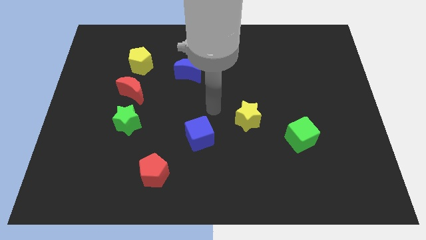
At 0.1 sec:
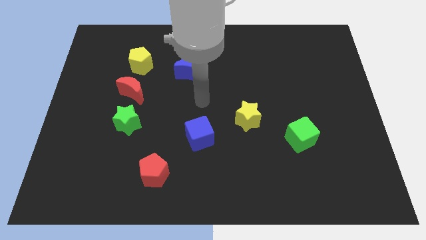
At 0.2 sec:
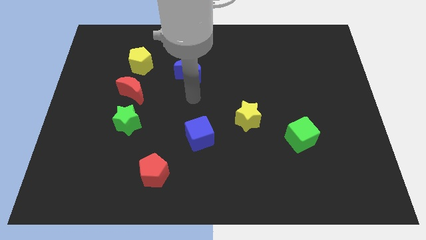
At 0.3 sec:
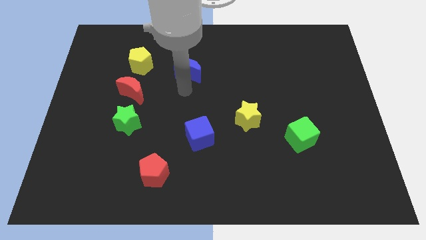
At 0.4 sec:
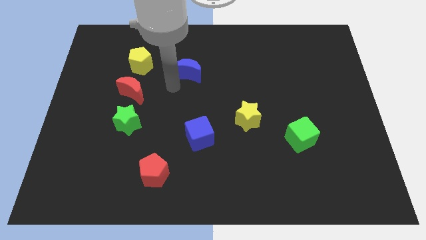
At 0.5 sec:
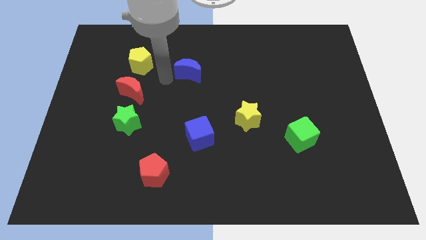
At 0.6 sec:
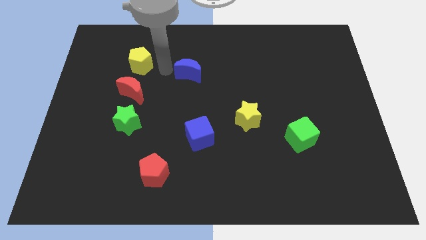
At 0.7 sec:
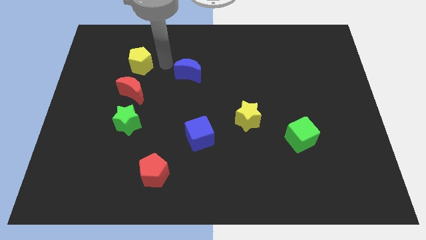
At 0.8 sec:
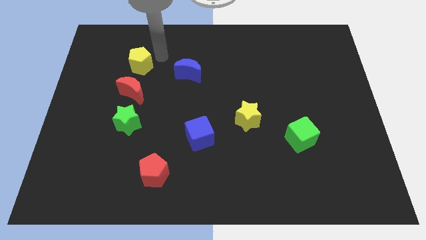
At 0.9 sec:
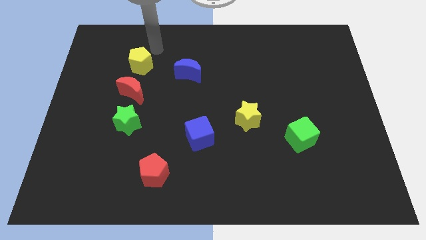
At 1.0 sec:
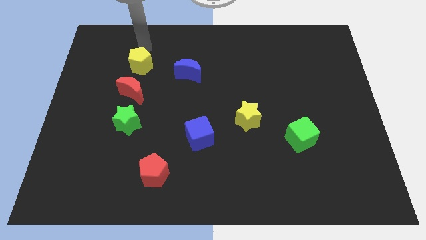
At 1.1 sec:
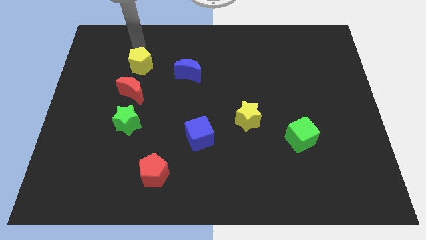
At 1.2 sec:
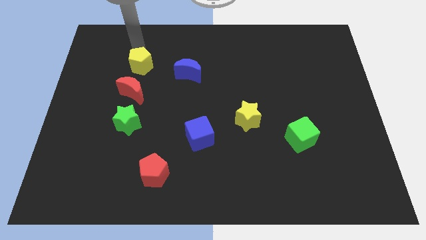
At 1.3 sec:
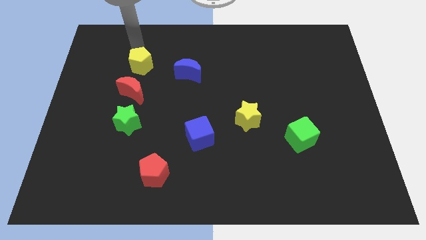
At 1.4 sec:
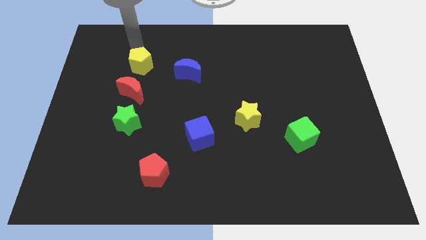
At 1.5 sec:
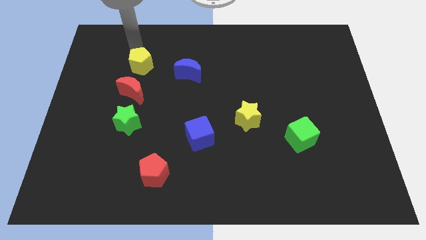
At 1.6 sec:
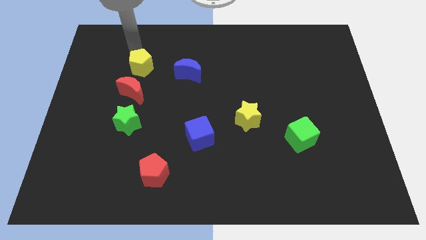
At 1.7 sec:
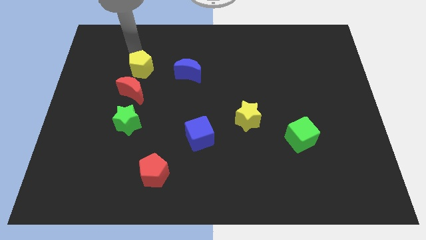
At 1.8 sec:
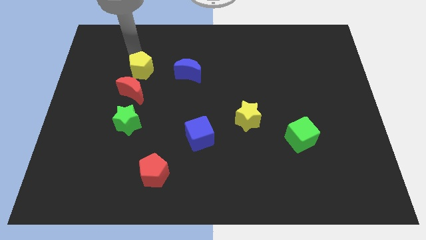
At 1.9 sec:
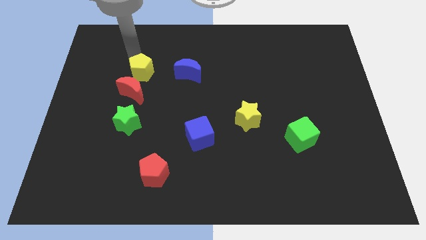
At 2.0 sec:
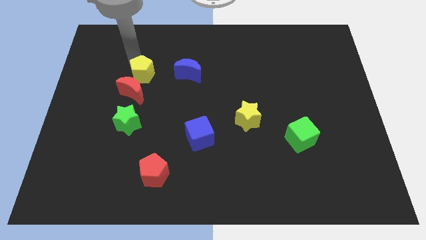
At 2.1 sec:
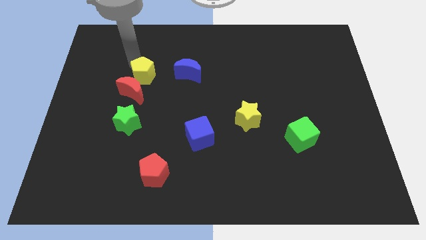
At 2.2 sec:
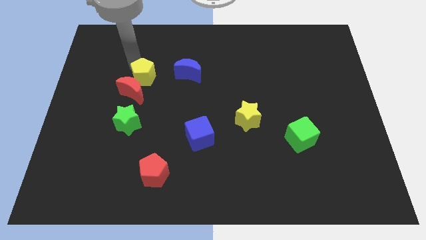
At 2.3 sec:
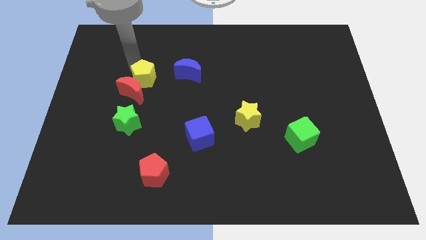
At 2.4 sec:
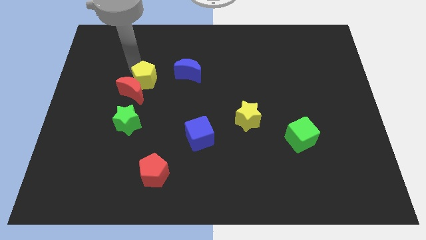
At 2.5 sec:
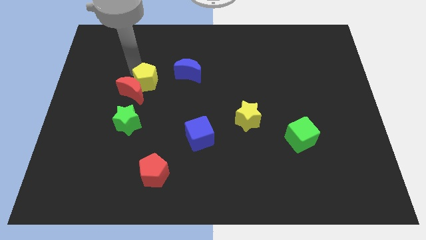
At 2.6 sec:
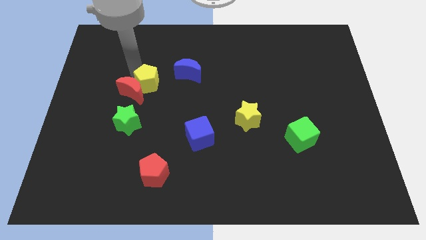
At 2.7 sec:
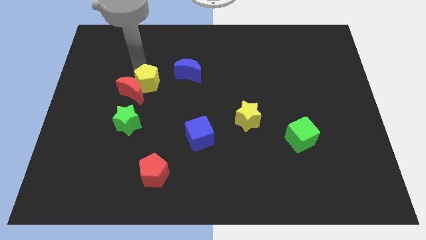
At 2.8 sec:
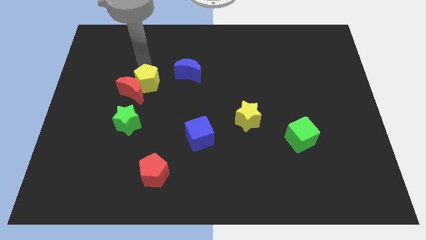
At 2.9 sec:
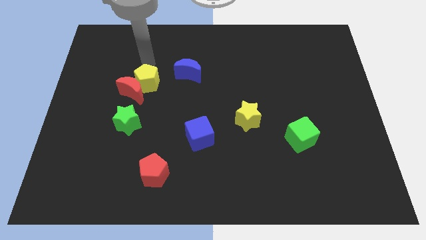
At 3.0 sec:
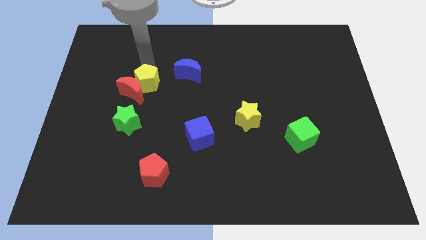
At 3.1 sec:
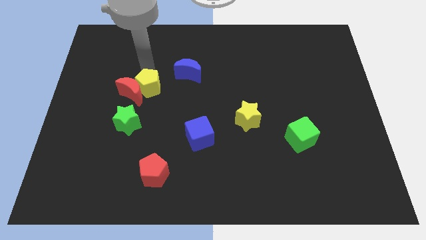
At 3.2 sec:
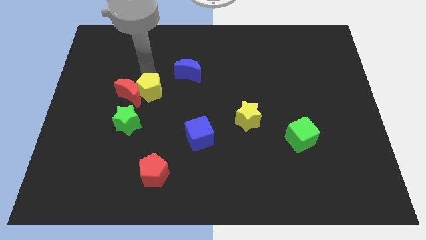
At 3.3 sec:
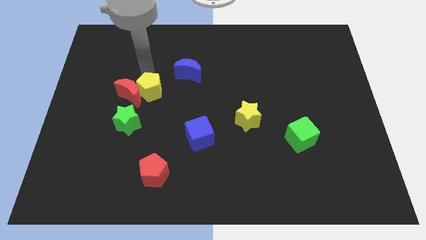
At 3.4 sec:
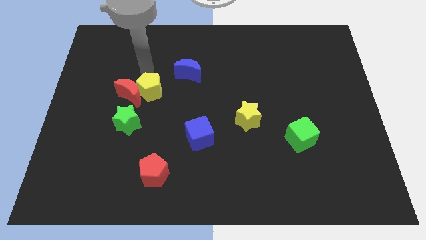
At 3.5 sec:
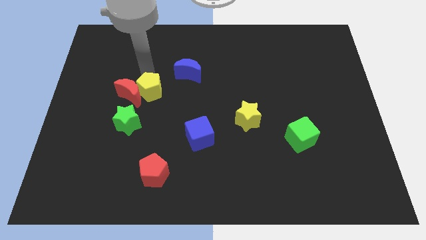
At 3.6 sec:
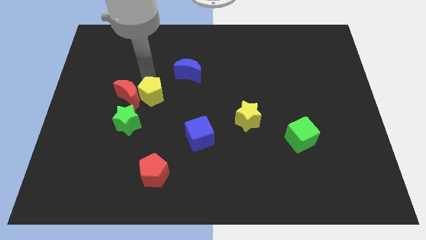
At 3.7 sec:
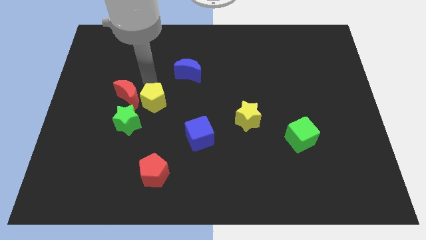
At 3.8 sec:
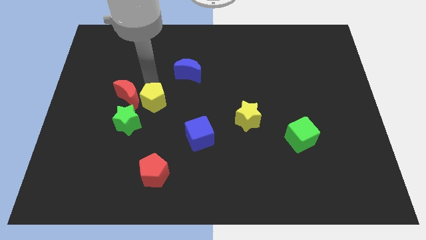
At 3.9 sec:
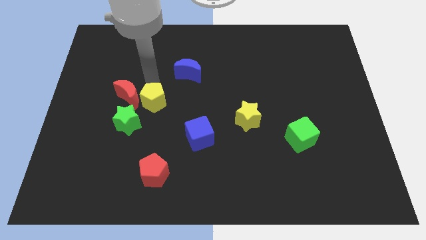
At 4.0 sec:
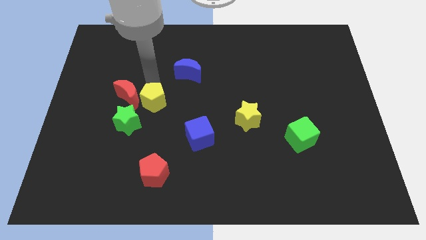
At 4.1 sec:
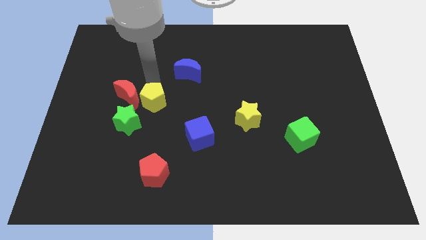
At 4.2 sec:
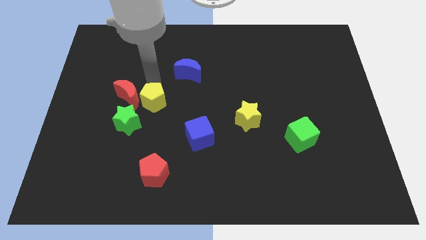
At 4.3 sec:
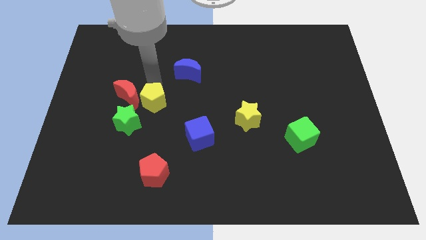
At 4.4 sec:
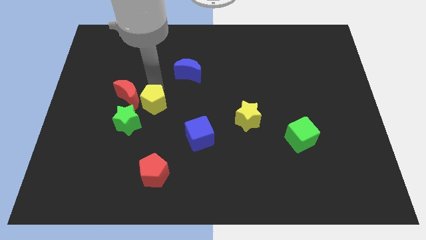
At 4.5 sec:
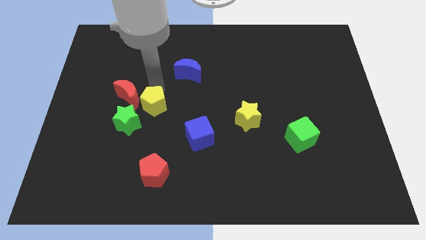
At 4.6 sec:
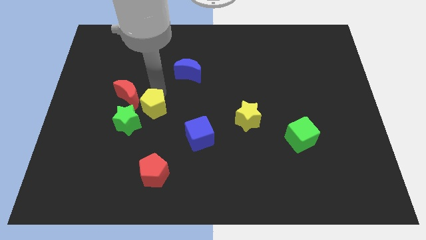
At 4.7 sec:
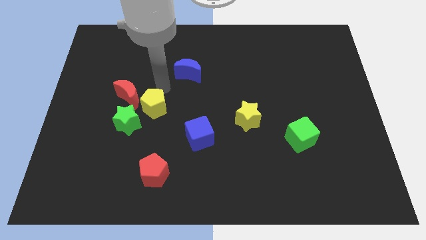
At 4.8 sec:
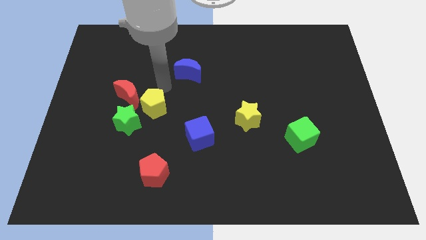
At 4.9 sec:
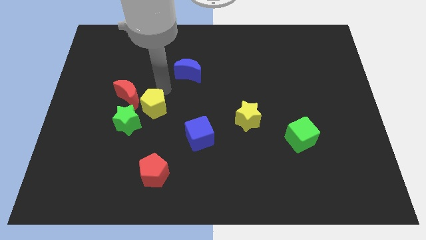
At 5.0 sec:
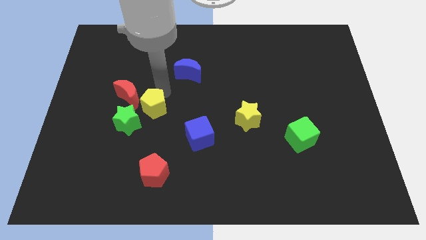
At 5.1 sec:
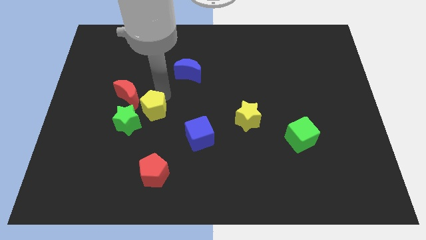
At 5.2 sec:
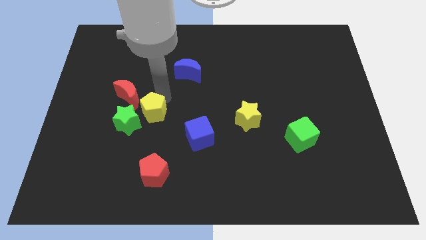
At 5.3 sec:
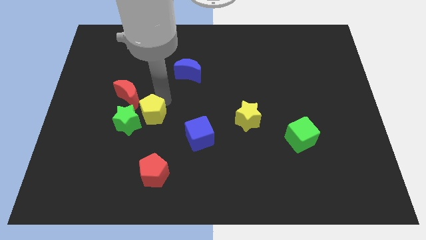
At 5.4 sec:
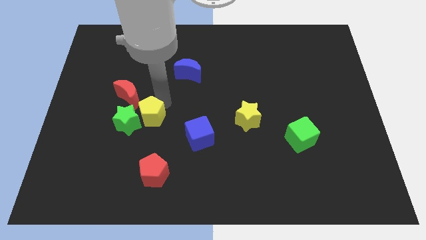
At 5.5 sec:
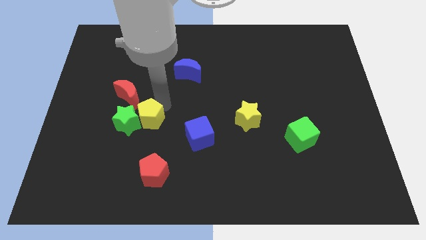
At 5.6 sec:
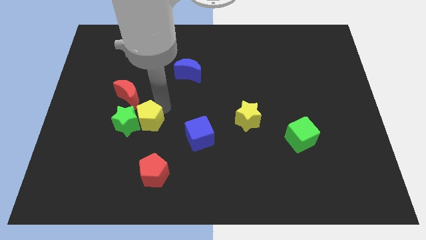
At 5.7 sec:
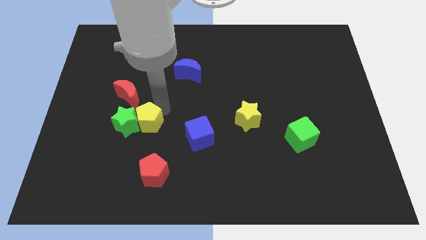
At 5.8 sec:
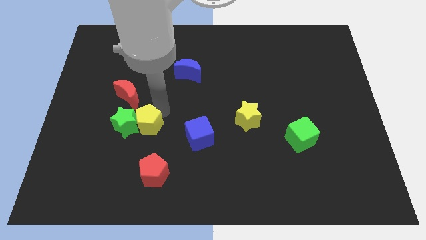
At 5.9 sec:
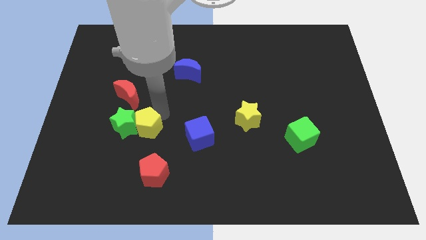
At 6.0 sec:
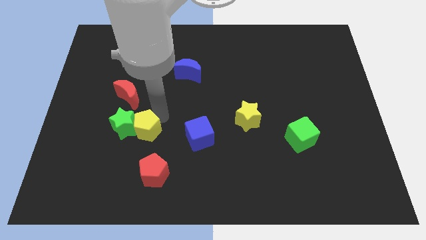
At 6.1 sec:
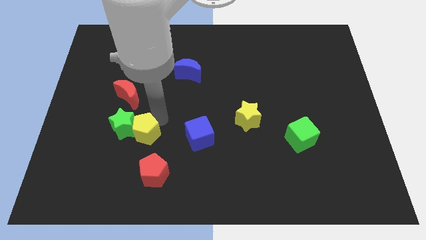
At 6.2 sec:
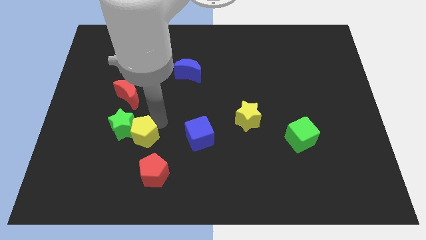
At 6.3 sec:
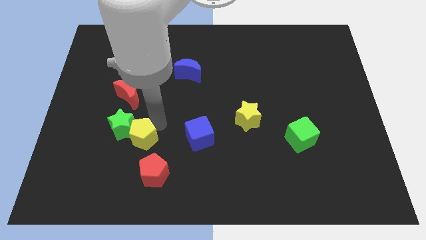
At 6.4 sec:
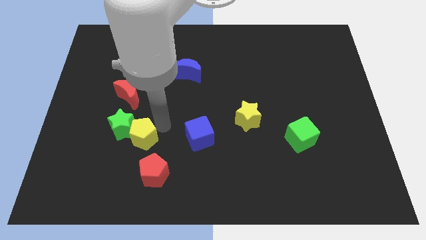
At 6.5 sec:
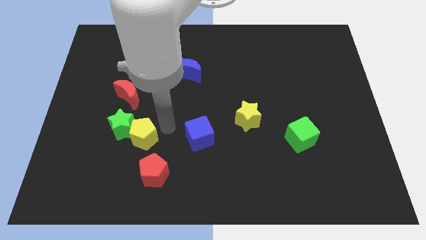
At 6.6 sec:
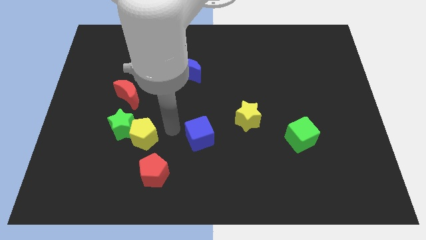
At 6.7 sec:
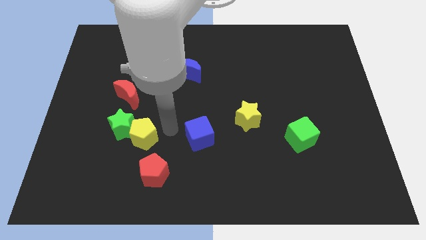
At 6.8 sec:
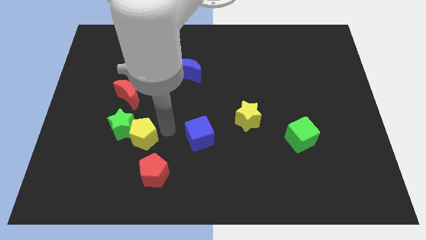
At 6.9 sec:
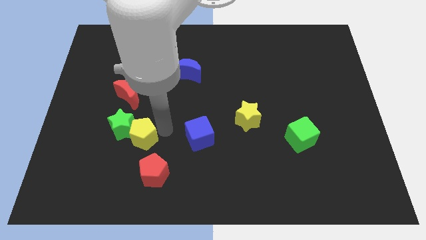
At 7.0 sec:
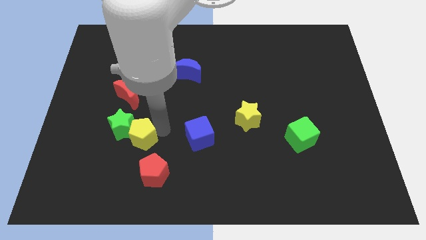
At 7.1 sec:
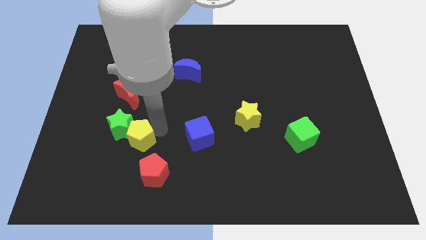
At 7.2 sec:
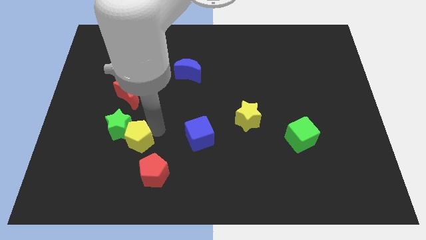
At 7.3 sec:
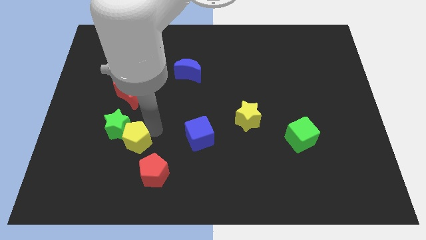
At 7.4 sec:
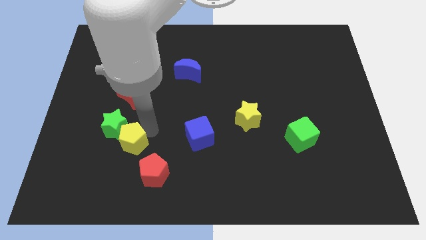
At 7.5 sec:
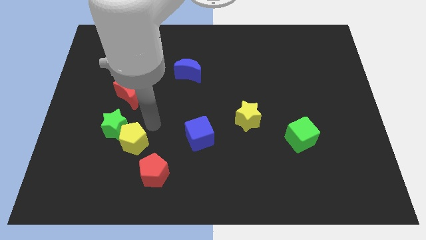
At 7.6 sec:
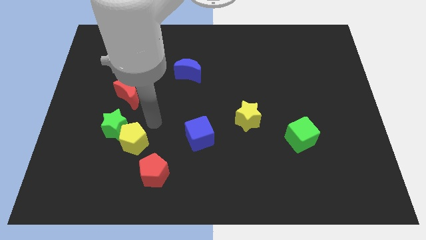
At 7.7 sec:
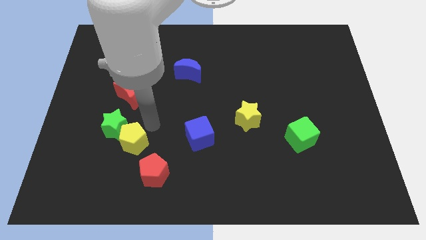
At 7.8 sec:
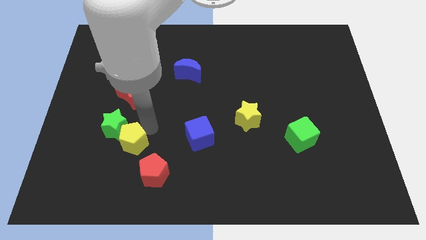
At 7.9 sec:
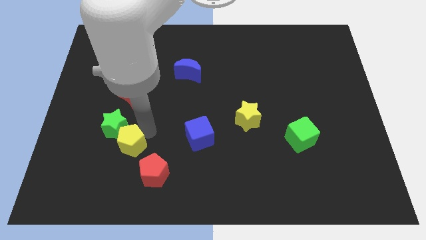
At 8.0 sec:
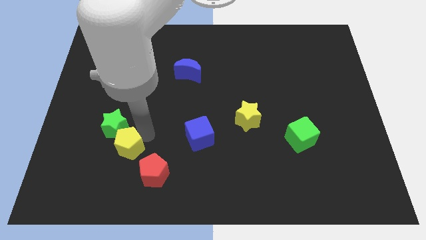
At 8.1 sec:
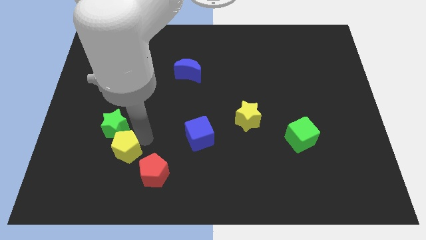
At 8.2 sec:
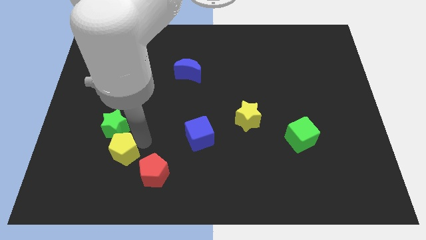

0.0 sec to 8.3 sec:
slide the yellow pentagon to the left of the red pentagon
